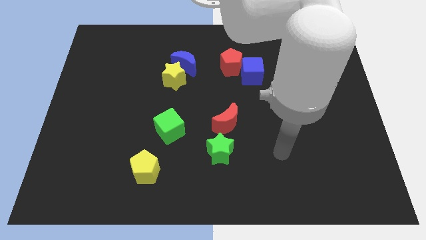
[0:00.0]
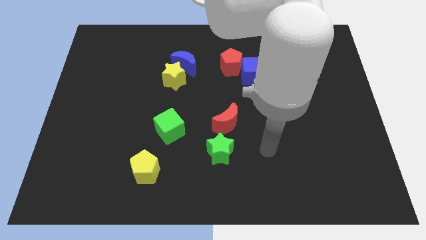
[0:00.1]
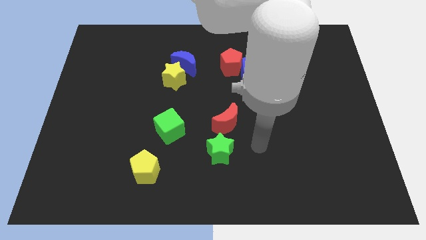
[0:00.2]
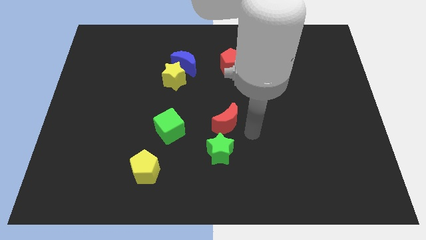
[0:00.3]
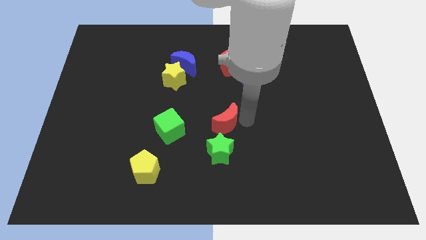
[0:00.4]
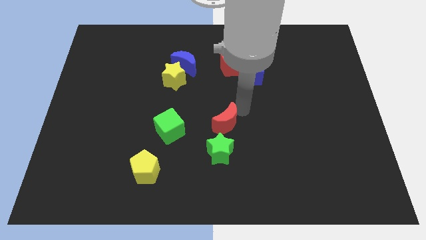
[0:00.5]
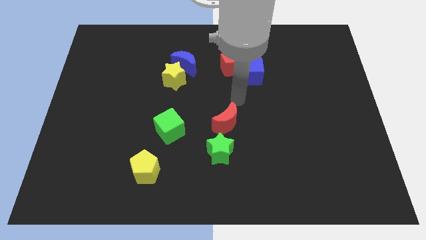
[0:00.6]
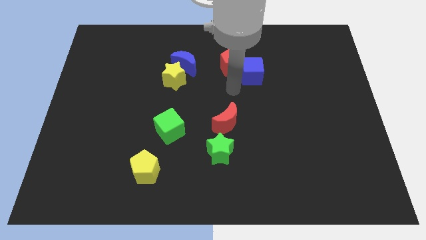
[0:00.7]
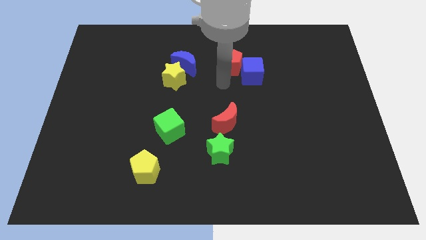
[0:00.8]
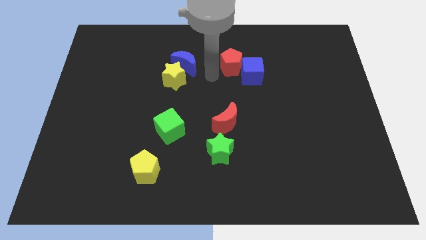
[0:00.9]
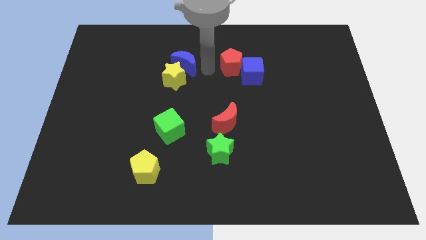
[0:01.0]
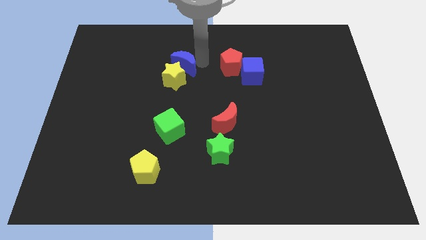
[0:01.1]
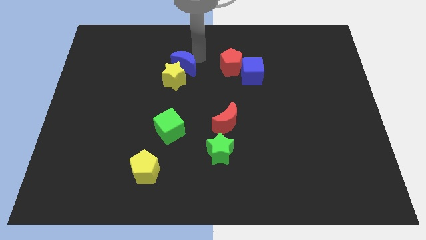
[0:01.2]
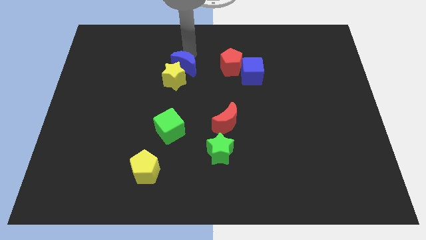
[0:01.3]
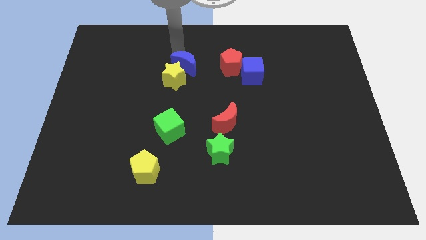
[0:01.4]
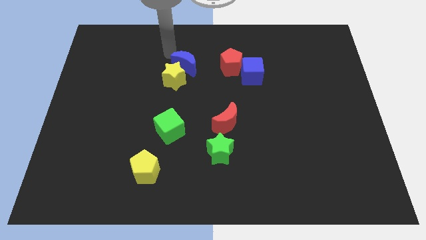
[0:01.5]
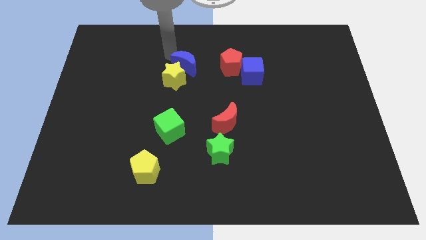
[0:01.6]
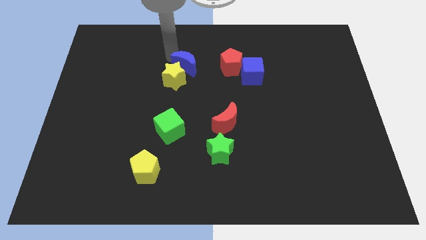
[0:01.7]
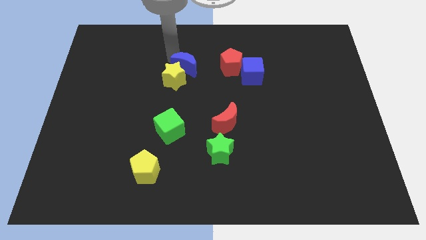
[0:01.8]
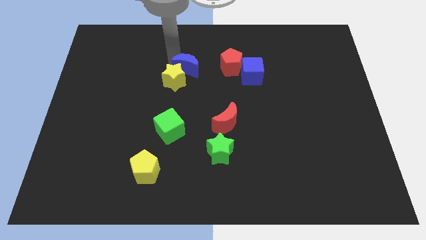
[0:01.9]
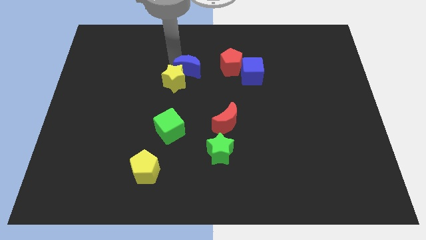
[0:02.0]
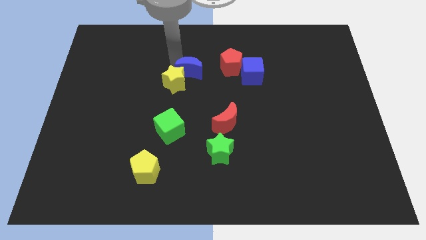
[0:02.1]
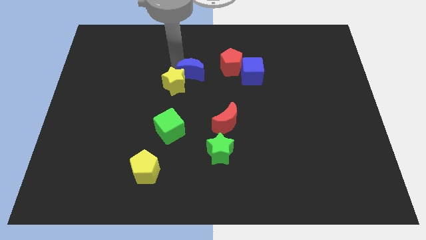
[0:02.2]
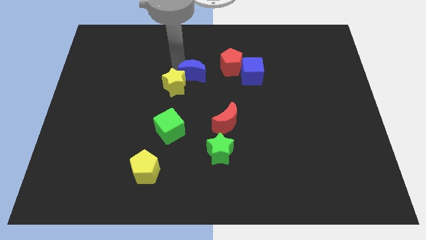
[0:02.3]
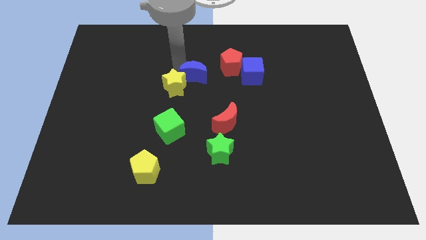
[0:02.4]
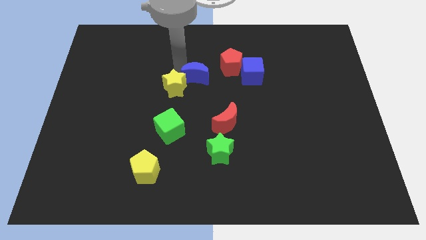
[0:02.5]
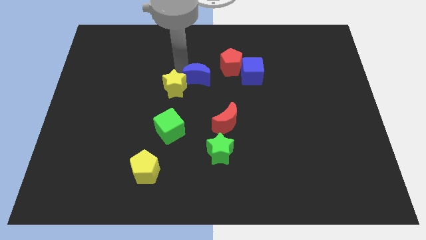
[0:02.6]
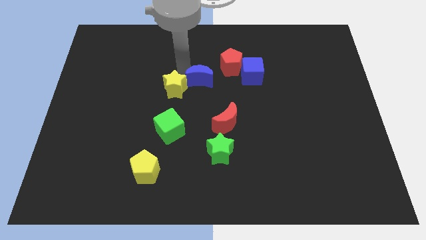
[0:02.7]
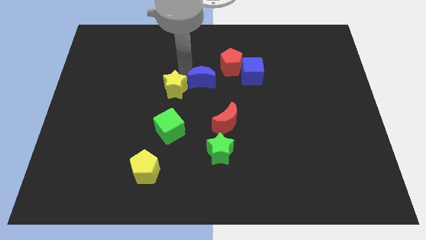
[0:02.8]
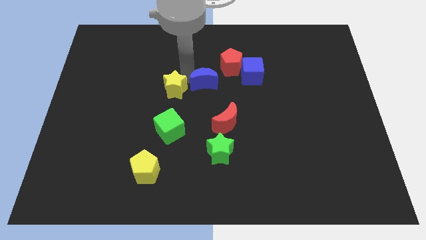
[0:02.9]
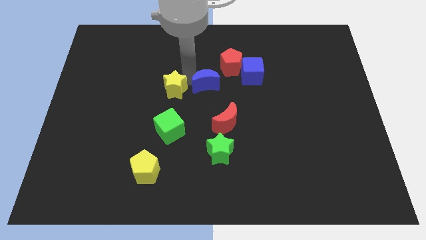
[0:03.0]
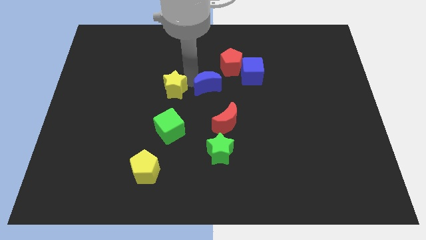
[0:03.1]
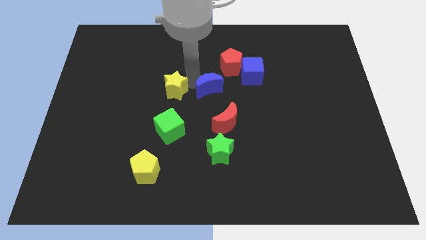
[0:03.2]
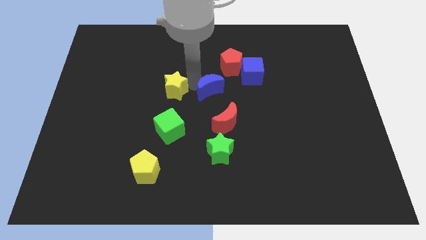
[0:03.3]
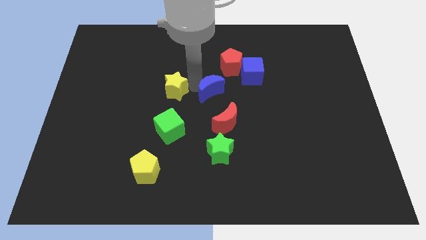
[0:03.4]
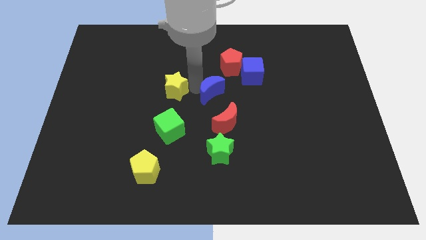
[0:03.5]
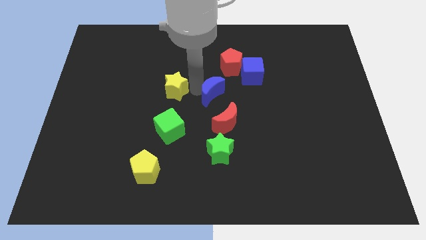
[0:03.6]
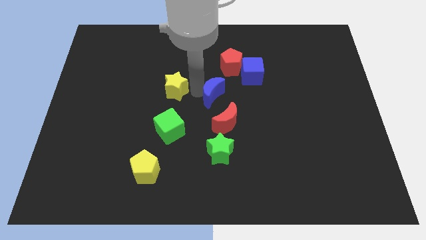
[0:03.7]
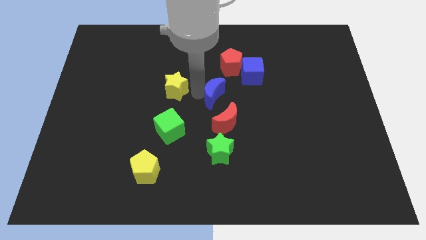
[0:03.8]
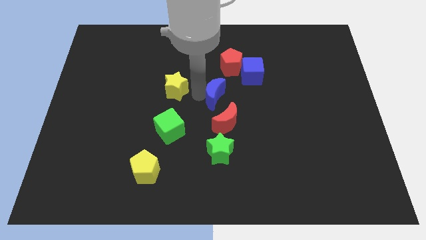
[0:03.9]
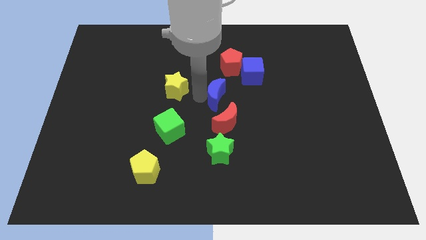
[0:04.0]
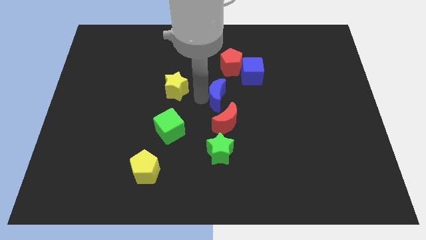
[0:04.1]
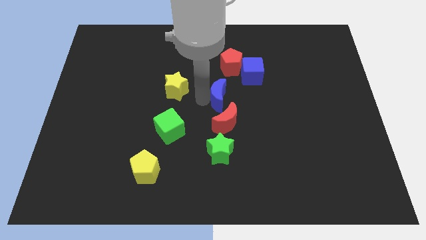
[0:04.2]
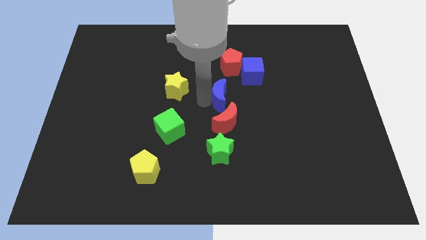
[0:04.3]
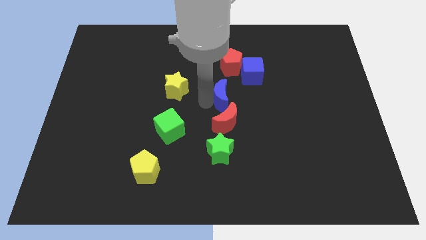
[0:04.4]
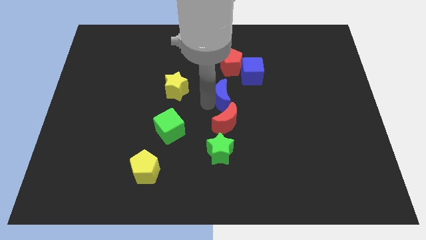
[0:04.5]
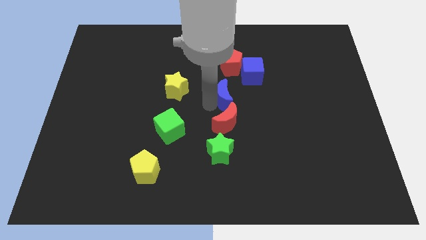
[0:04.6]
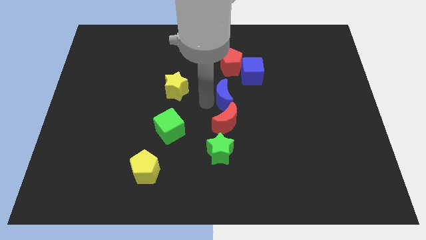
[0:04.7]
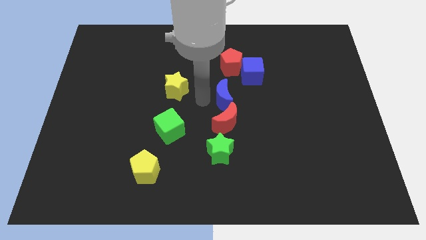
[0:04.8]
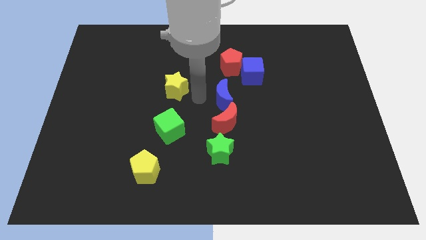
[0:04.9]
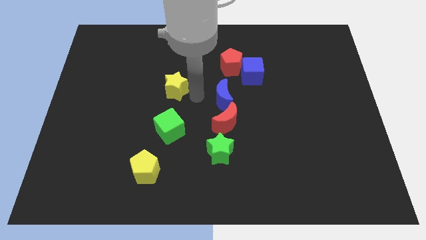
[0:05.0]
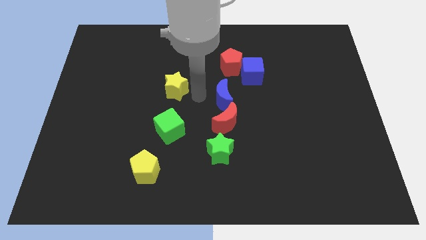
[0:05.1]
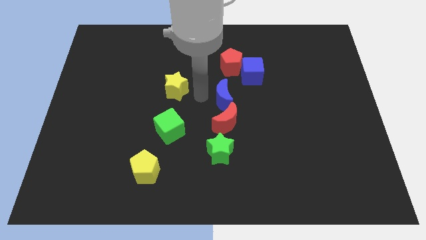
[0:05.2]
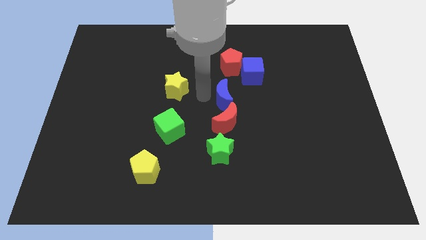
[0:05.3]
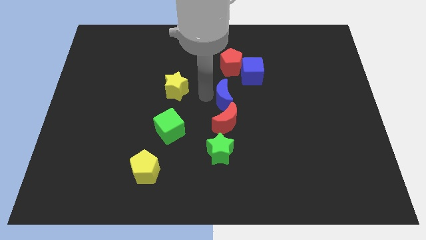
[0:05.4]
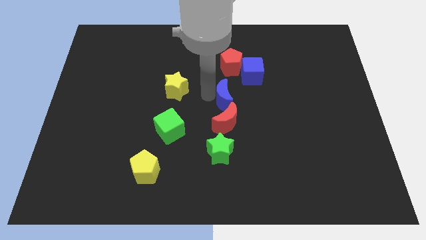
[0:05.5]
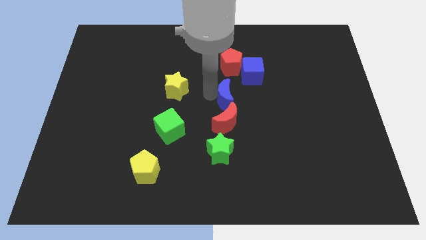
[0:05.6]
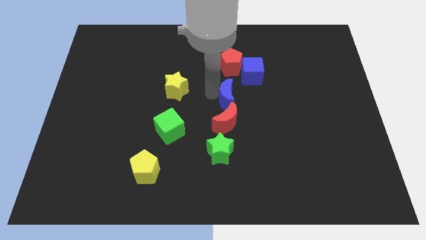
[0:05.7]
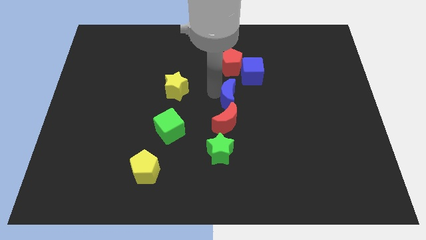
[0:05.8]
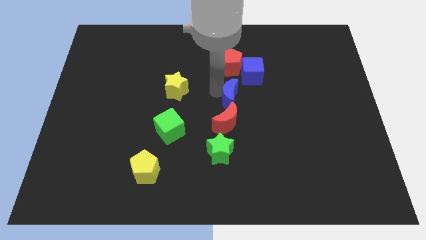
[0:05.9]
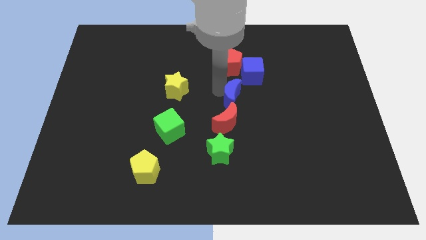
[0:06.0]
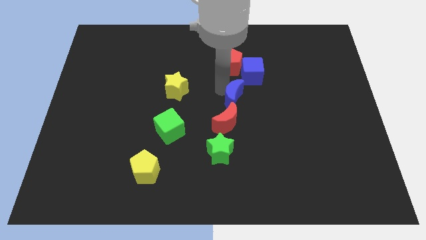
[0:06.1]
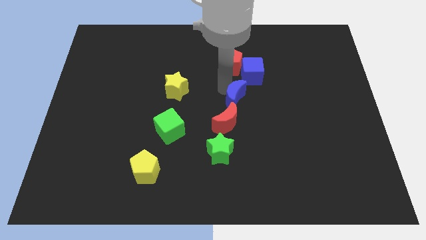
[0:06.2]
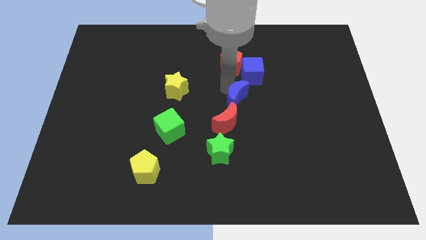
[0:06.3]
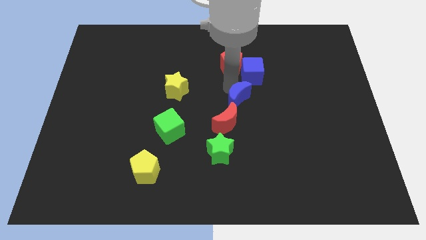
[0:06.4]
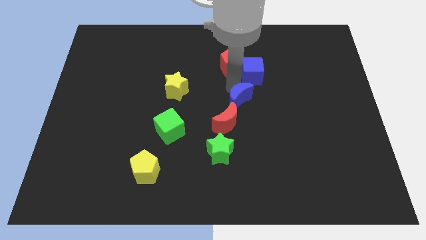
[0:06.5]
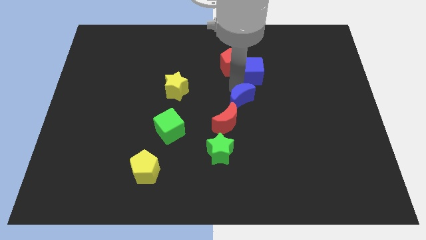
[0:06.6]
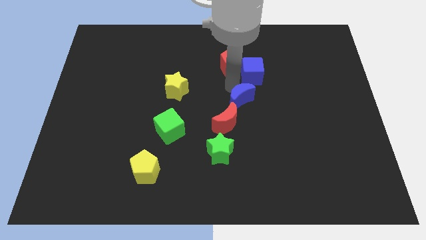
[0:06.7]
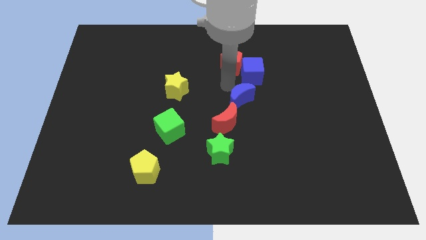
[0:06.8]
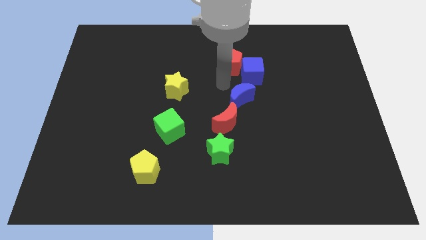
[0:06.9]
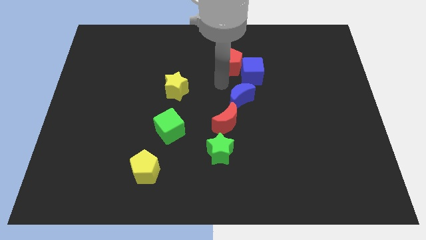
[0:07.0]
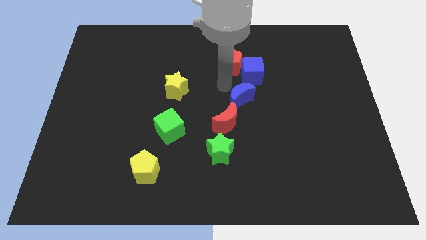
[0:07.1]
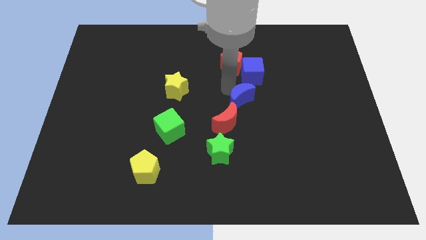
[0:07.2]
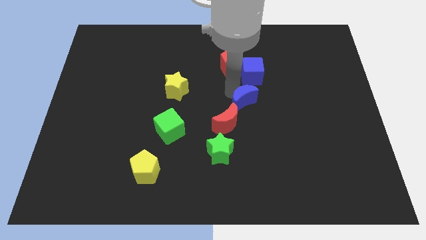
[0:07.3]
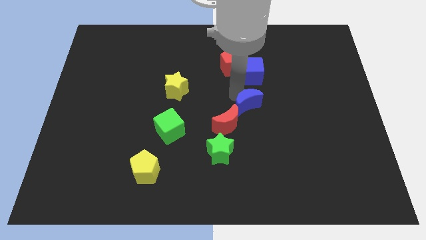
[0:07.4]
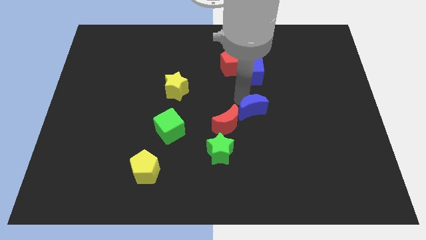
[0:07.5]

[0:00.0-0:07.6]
slide the blue moon down and to the right

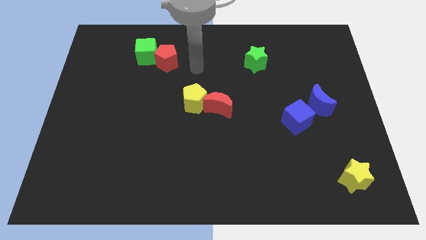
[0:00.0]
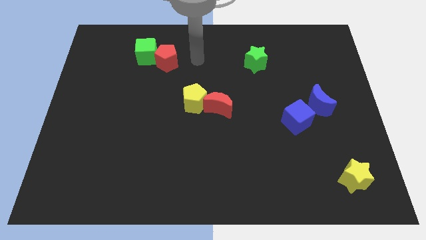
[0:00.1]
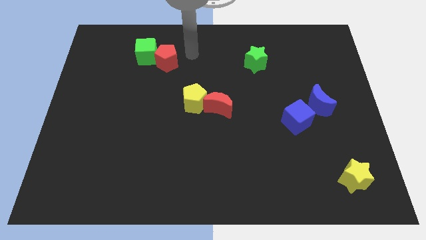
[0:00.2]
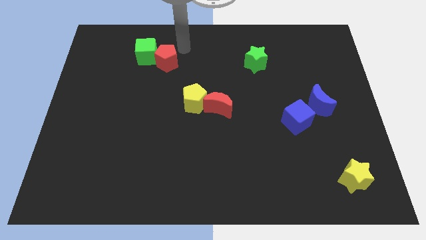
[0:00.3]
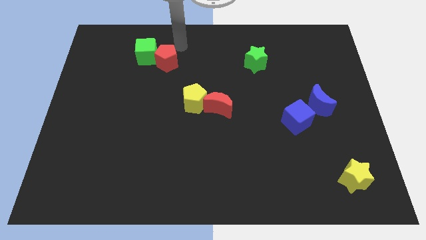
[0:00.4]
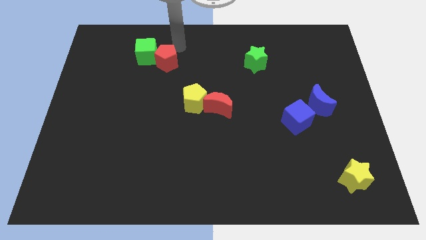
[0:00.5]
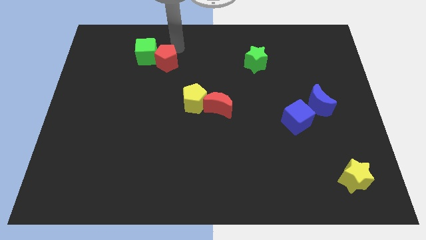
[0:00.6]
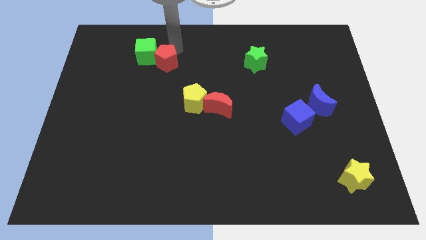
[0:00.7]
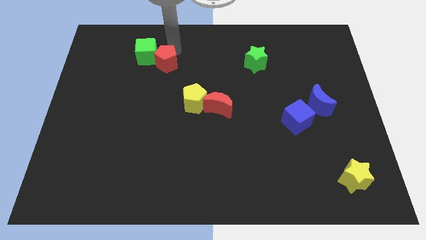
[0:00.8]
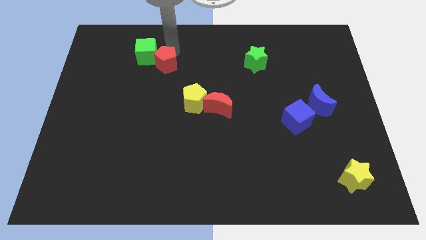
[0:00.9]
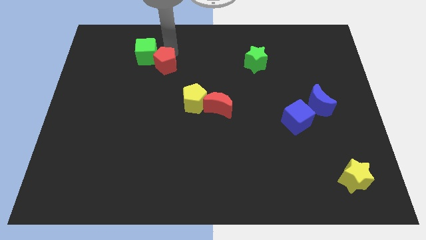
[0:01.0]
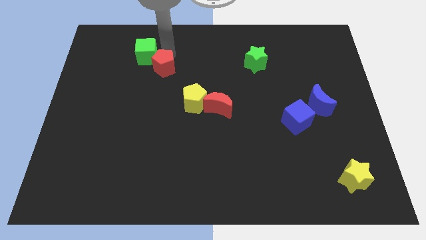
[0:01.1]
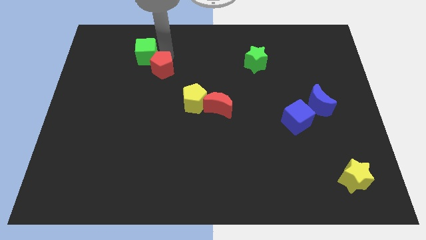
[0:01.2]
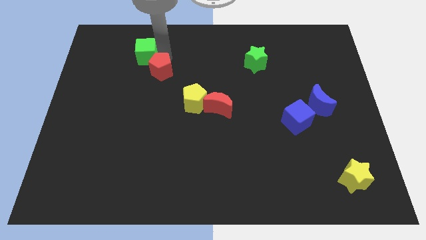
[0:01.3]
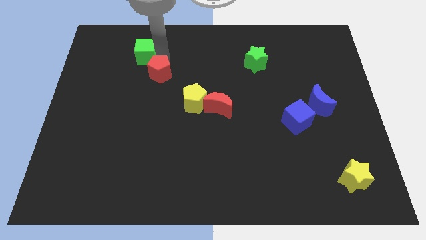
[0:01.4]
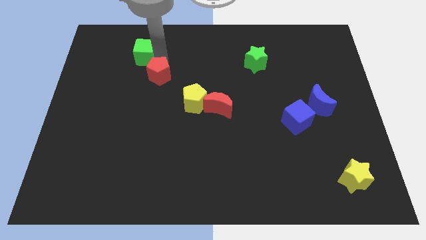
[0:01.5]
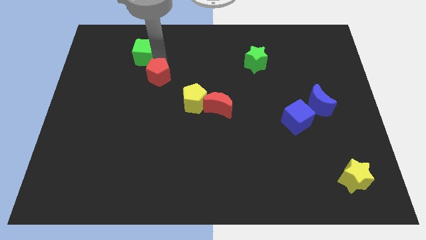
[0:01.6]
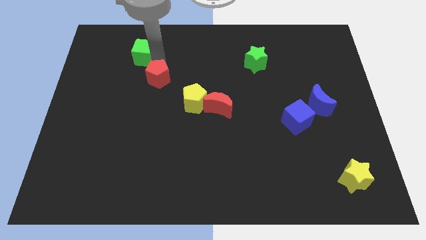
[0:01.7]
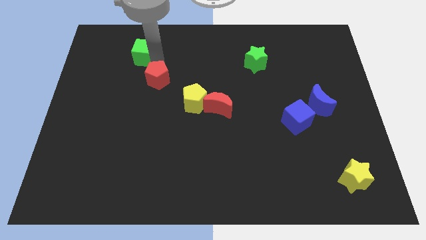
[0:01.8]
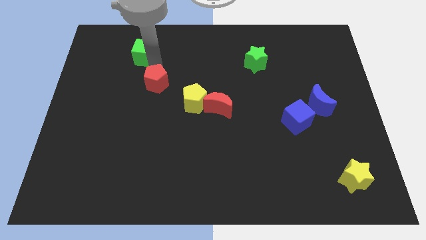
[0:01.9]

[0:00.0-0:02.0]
slightly move the red pentagon down
